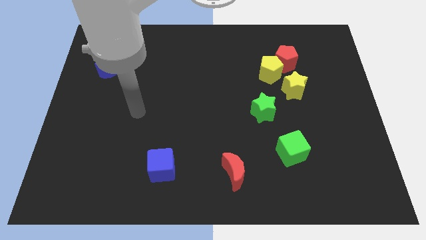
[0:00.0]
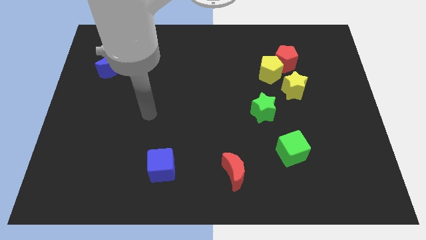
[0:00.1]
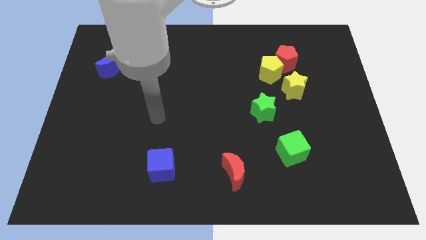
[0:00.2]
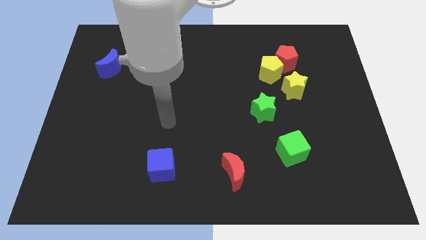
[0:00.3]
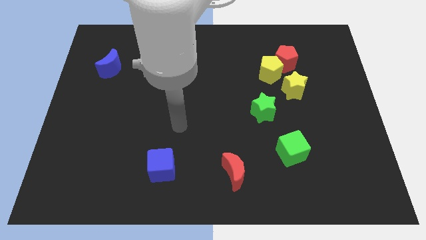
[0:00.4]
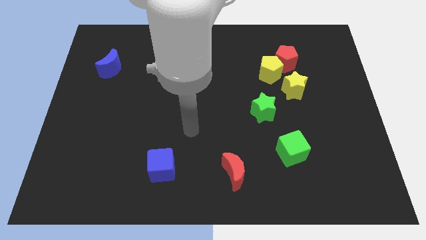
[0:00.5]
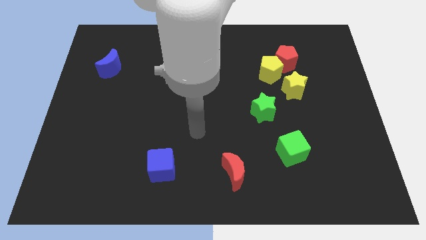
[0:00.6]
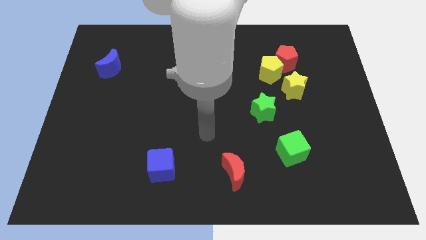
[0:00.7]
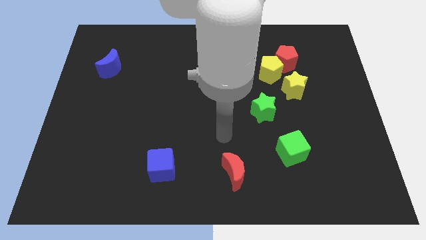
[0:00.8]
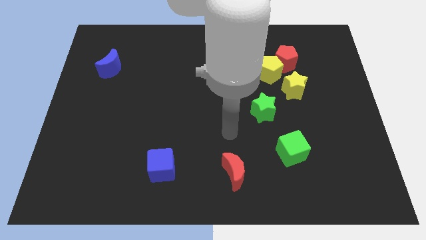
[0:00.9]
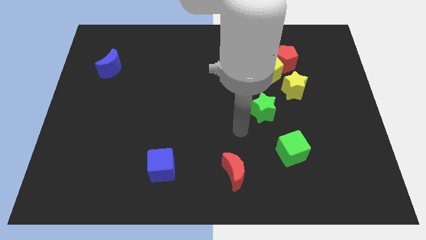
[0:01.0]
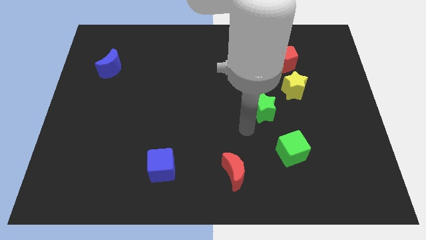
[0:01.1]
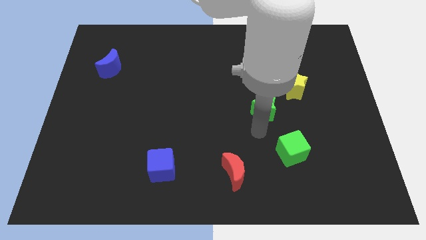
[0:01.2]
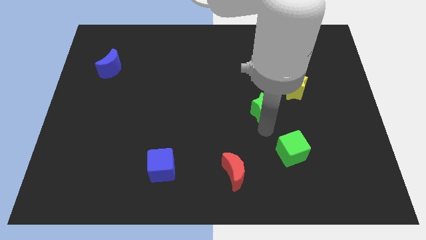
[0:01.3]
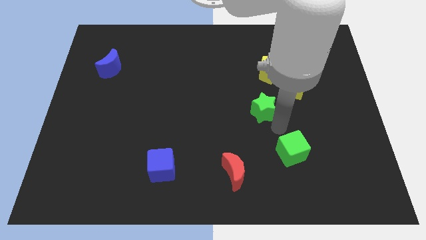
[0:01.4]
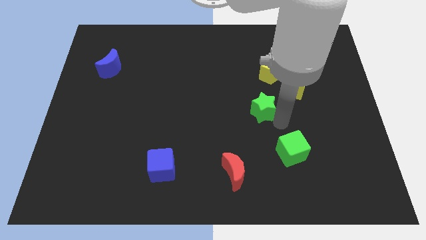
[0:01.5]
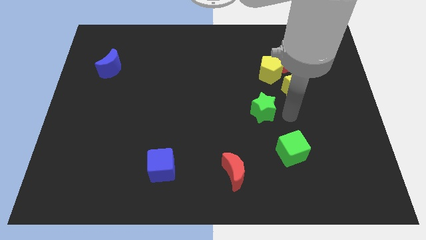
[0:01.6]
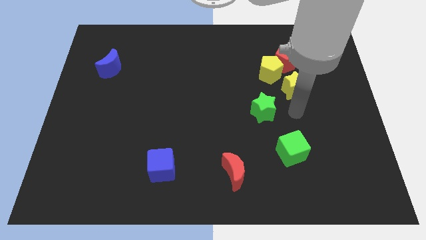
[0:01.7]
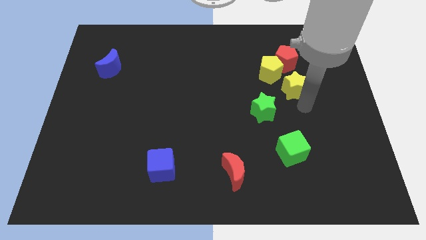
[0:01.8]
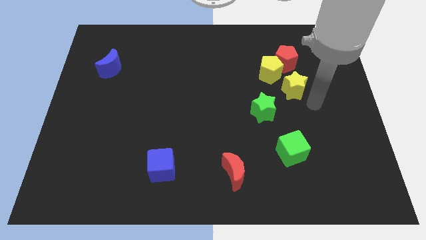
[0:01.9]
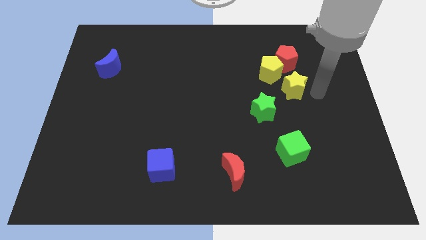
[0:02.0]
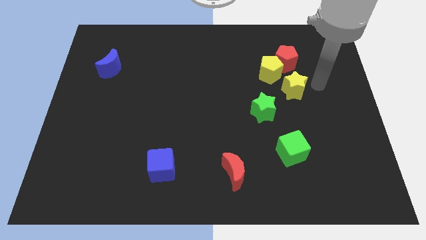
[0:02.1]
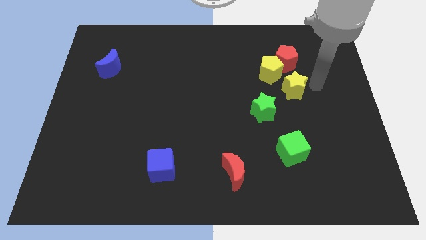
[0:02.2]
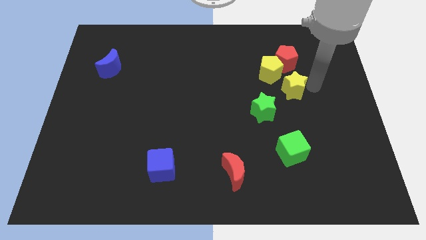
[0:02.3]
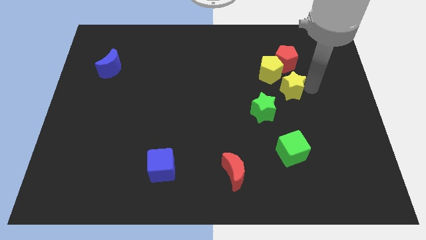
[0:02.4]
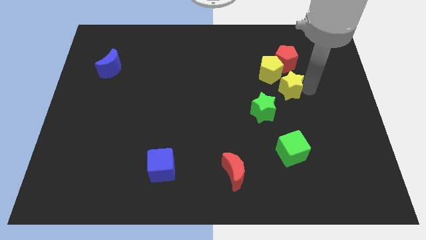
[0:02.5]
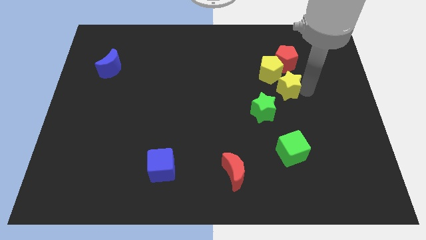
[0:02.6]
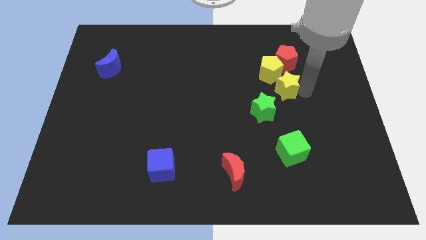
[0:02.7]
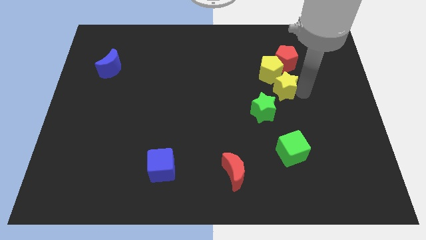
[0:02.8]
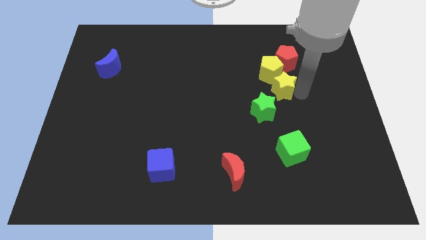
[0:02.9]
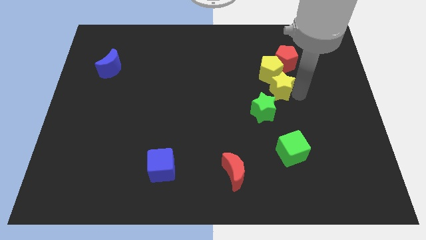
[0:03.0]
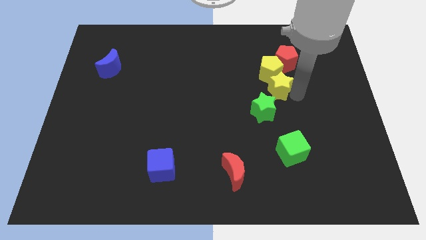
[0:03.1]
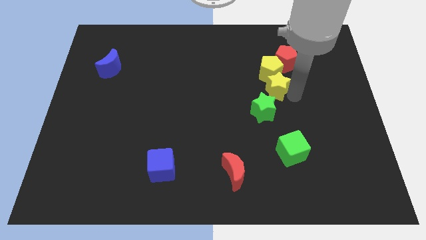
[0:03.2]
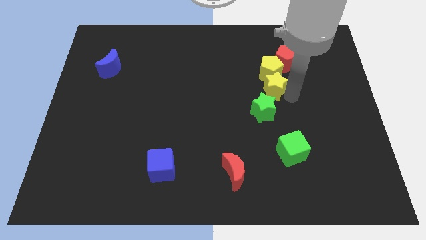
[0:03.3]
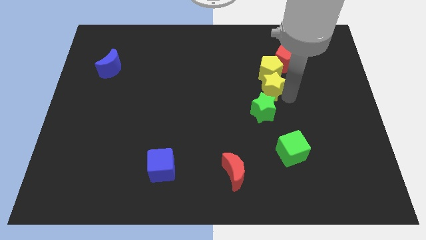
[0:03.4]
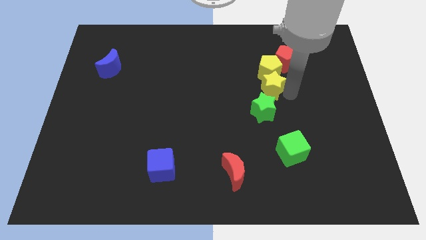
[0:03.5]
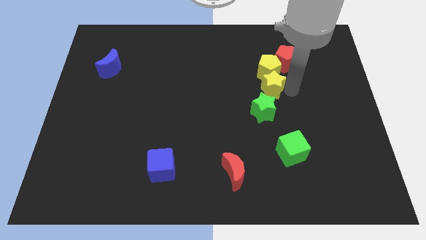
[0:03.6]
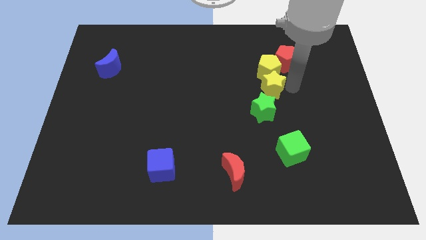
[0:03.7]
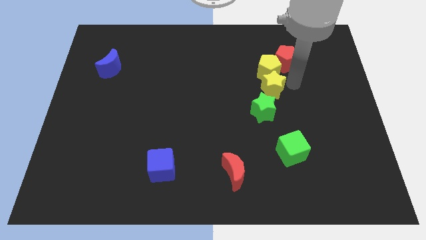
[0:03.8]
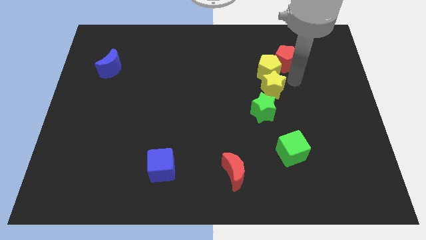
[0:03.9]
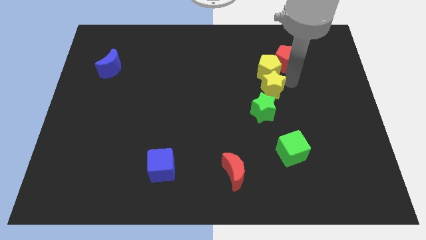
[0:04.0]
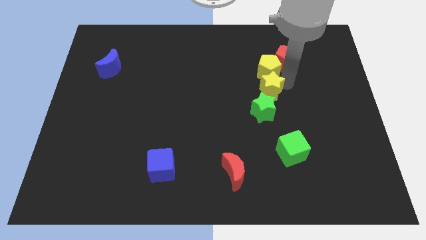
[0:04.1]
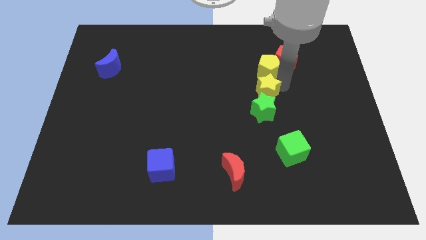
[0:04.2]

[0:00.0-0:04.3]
slide the yellow star a little bit left

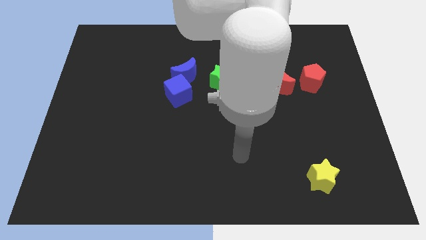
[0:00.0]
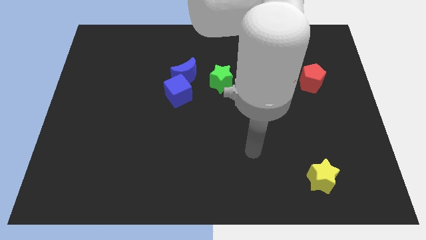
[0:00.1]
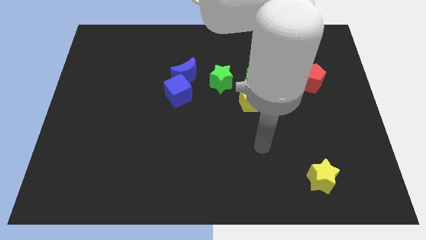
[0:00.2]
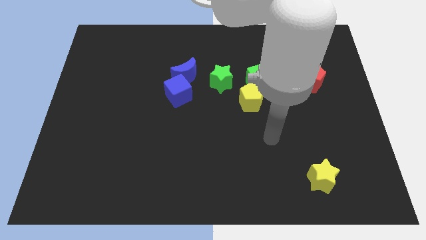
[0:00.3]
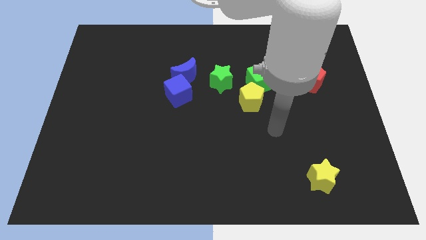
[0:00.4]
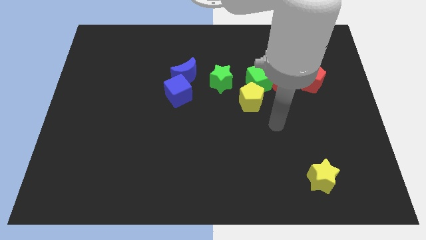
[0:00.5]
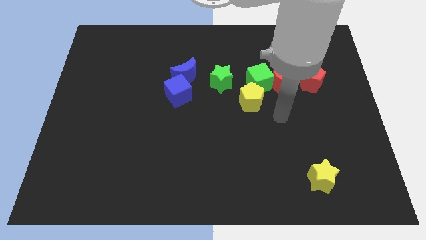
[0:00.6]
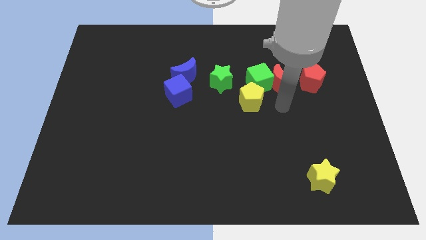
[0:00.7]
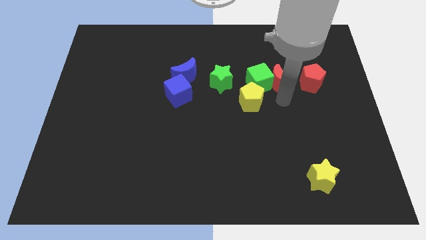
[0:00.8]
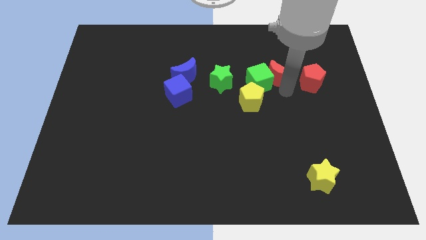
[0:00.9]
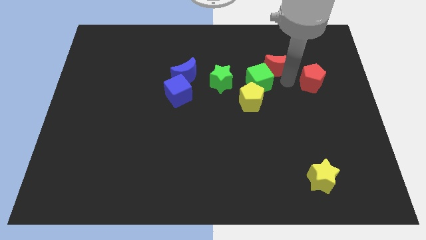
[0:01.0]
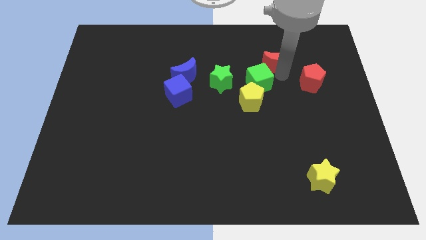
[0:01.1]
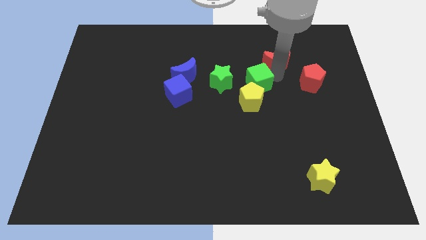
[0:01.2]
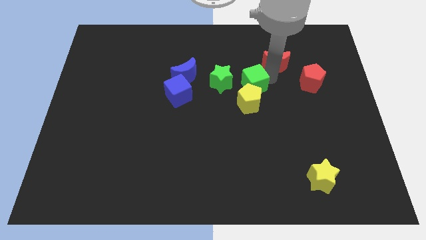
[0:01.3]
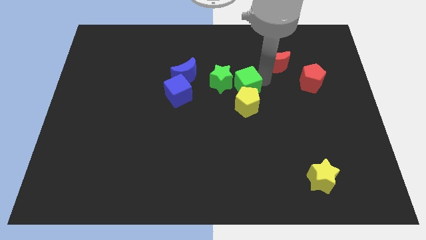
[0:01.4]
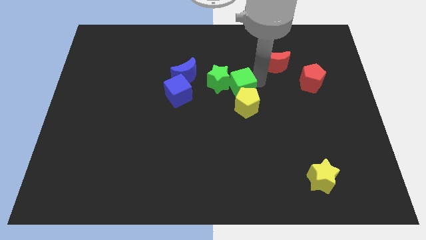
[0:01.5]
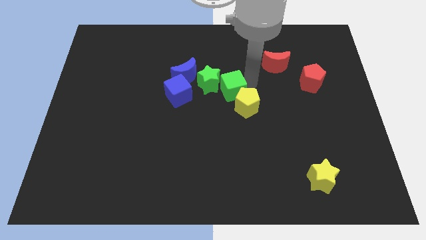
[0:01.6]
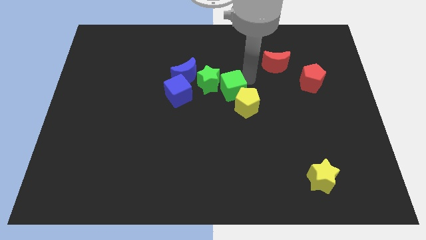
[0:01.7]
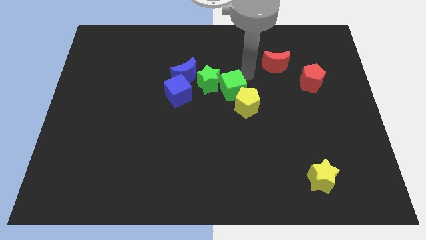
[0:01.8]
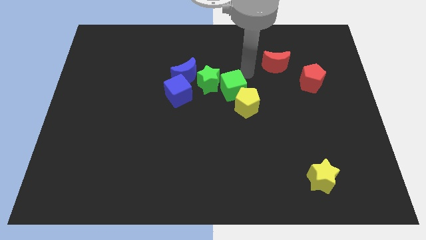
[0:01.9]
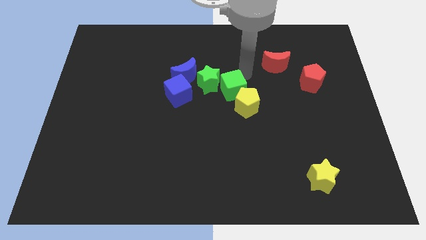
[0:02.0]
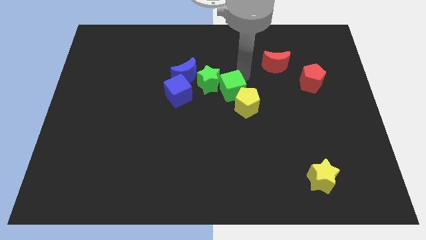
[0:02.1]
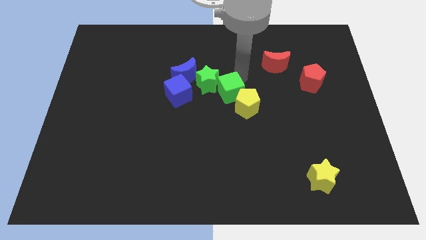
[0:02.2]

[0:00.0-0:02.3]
push the green cube downwards and left diagonally slightly

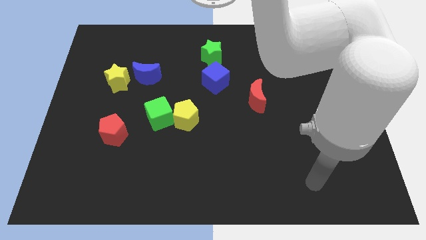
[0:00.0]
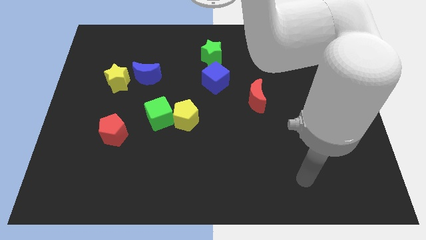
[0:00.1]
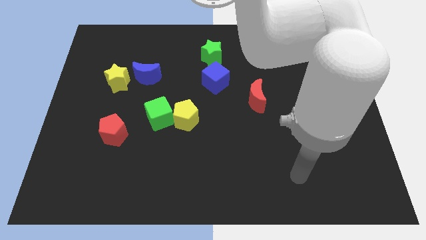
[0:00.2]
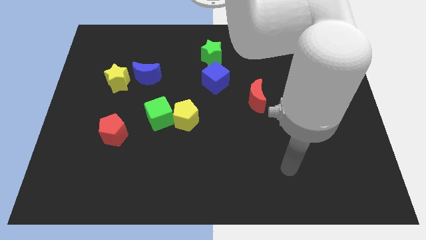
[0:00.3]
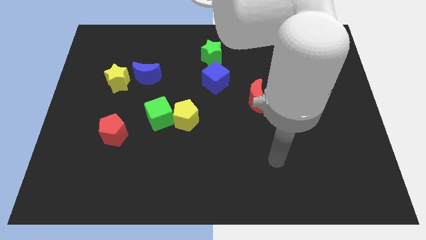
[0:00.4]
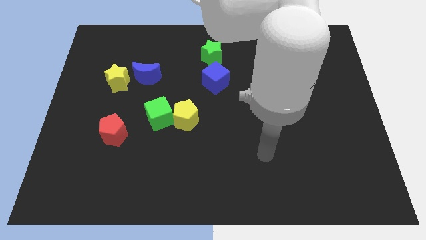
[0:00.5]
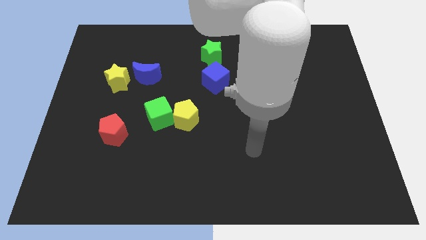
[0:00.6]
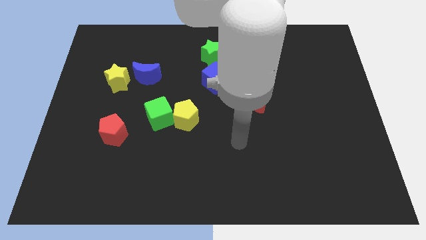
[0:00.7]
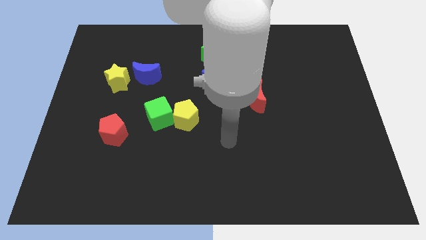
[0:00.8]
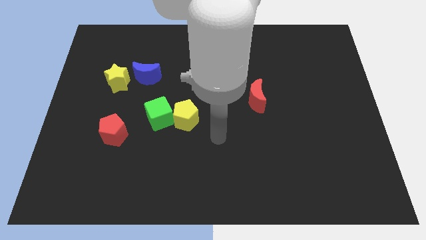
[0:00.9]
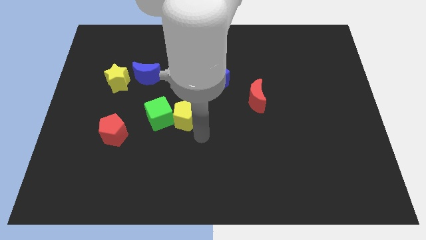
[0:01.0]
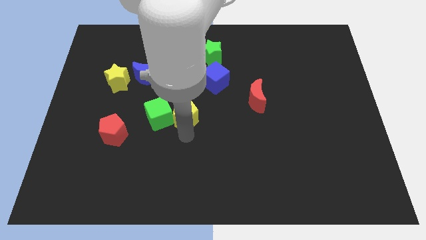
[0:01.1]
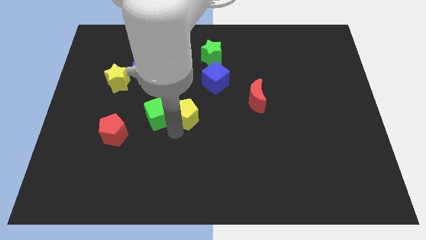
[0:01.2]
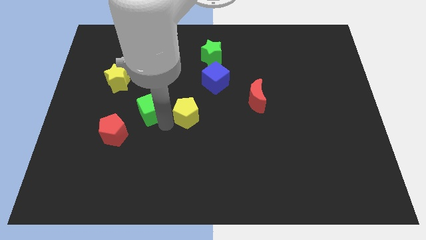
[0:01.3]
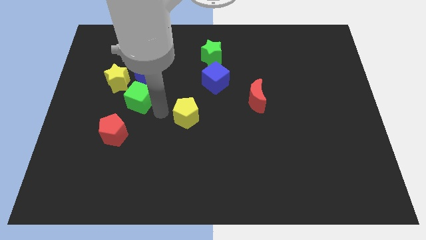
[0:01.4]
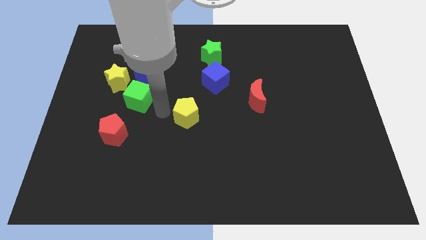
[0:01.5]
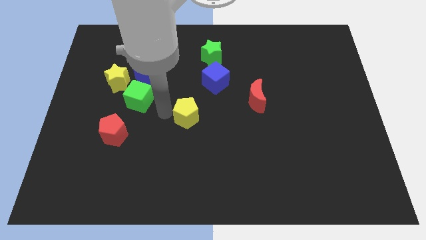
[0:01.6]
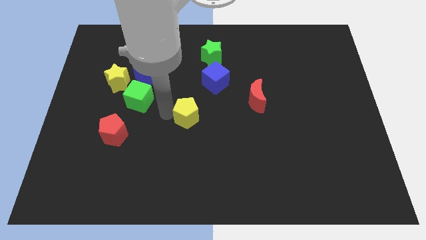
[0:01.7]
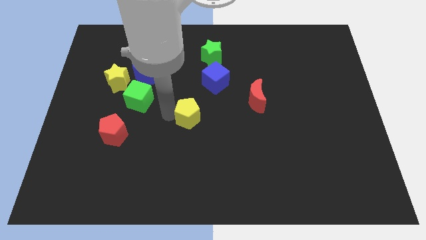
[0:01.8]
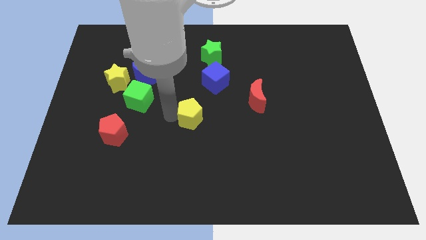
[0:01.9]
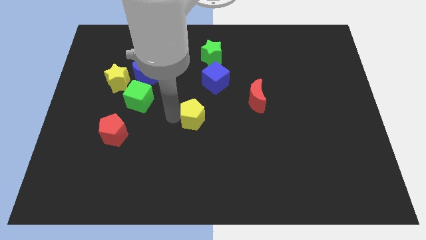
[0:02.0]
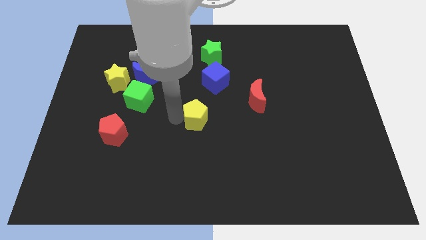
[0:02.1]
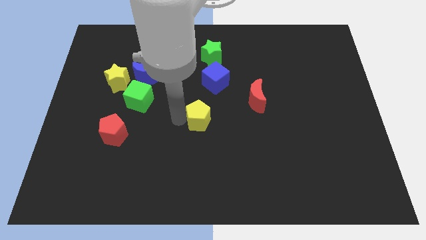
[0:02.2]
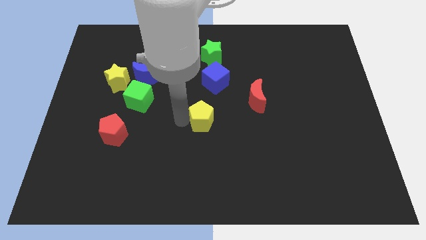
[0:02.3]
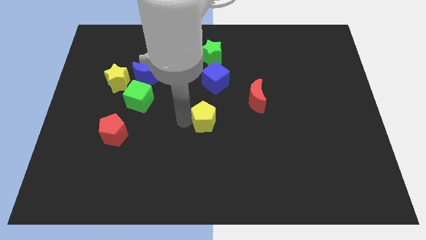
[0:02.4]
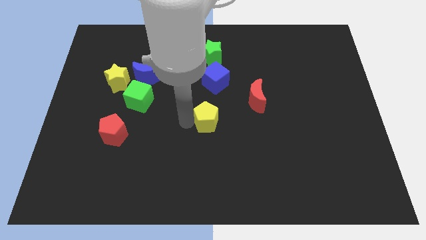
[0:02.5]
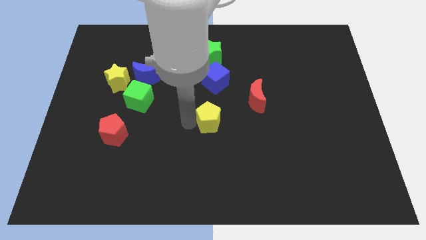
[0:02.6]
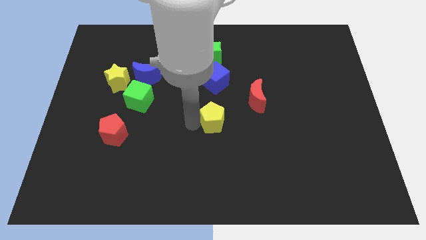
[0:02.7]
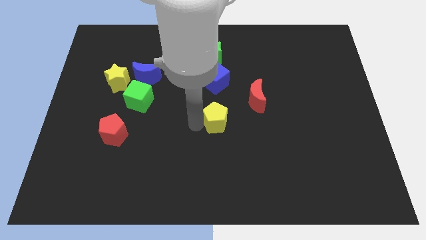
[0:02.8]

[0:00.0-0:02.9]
slide the yellow pentagon somewhat to the right
